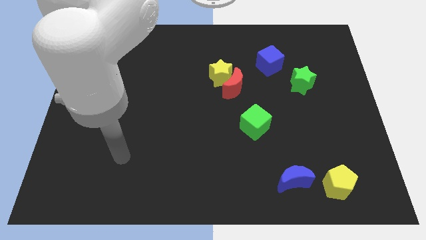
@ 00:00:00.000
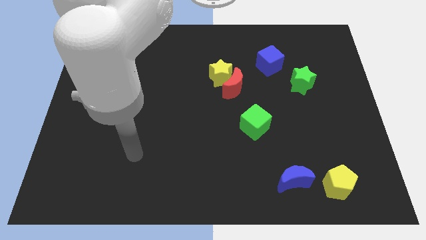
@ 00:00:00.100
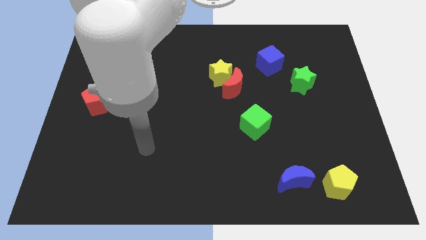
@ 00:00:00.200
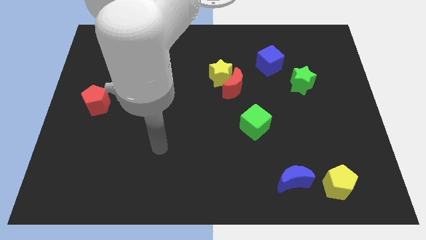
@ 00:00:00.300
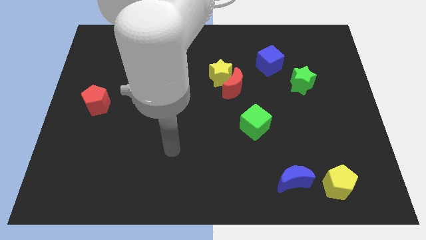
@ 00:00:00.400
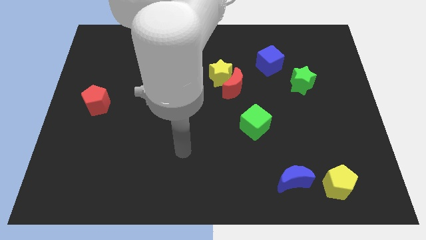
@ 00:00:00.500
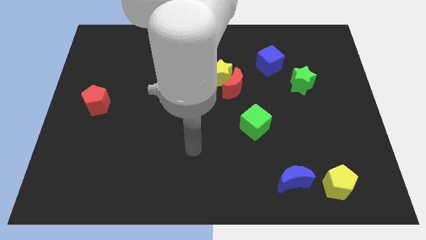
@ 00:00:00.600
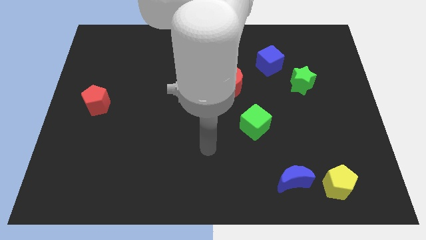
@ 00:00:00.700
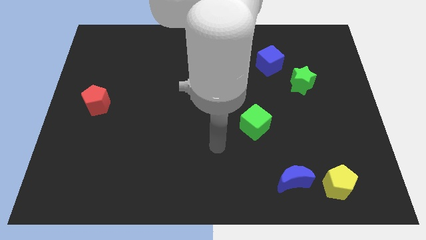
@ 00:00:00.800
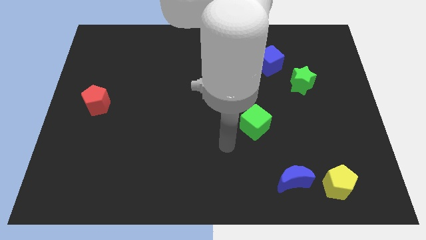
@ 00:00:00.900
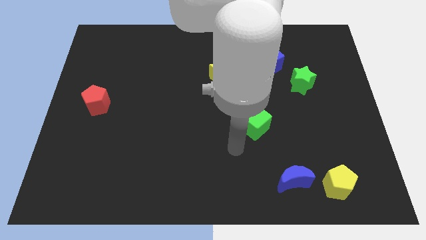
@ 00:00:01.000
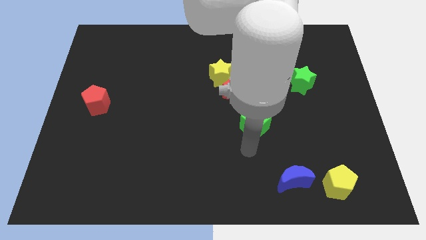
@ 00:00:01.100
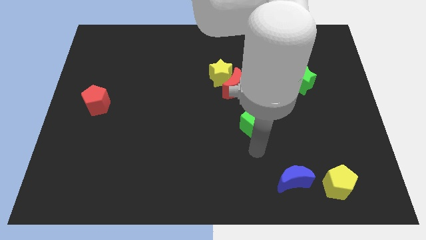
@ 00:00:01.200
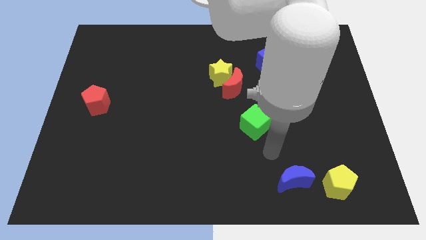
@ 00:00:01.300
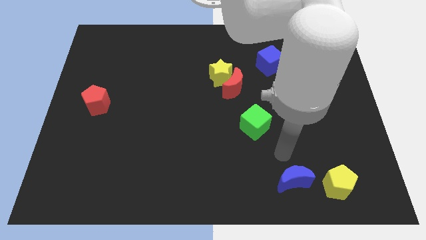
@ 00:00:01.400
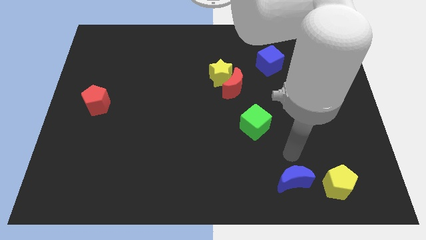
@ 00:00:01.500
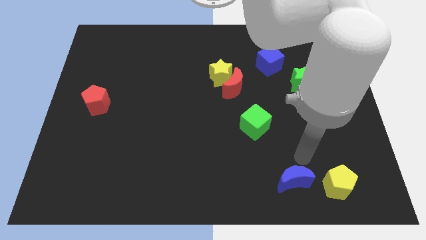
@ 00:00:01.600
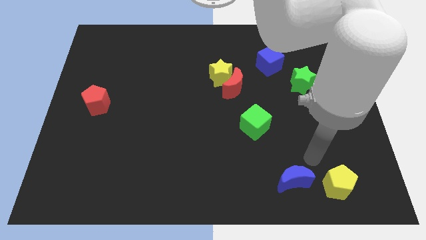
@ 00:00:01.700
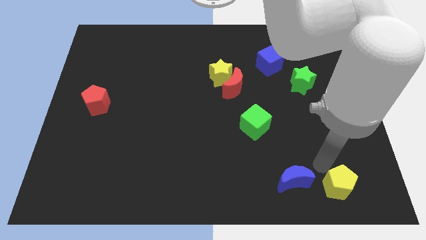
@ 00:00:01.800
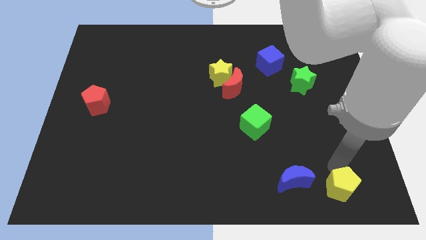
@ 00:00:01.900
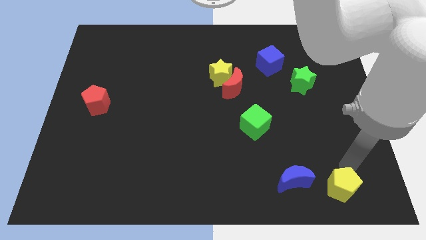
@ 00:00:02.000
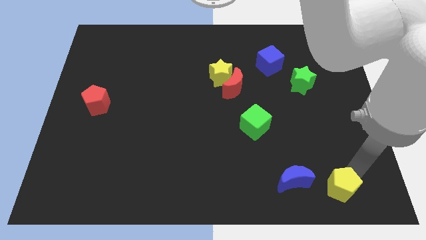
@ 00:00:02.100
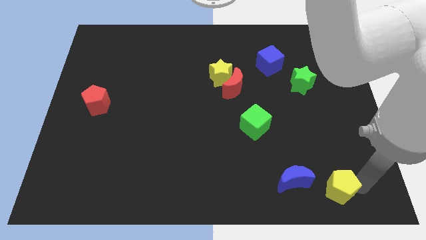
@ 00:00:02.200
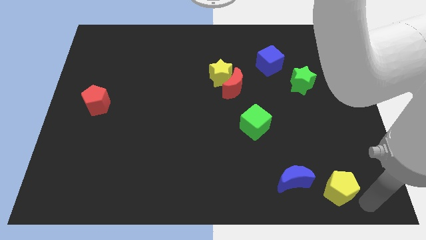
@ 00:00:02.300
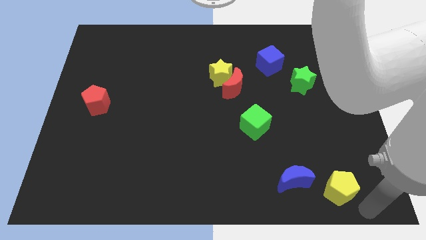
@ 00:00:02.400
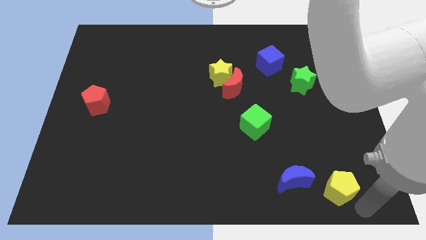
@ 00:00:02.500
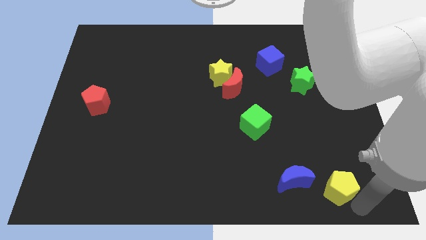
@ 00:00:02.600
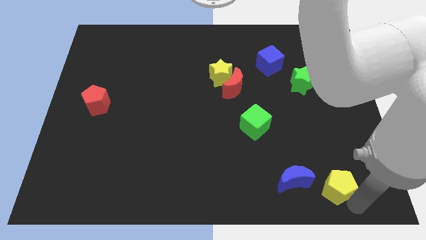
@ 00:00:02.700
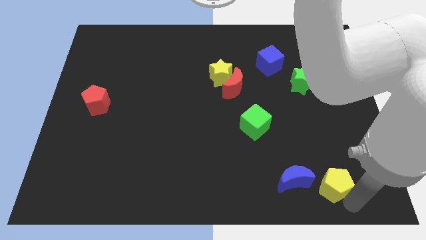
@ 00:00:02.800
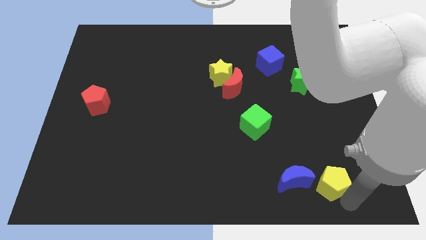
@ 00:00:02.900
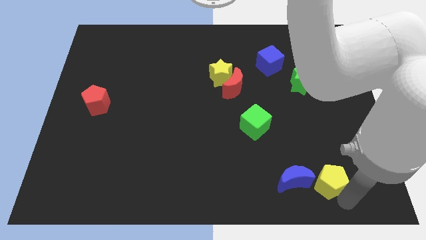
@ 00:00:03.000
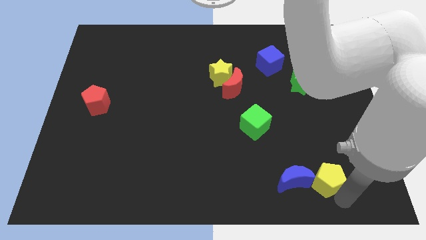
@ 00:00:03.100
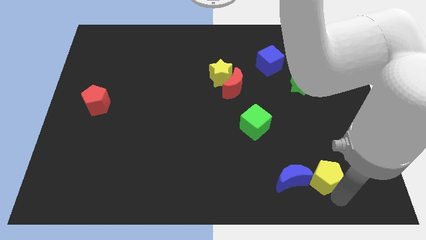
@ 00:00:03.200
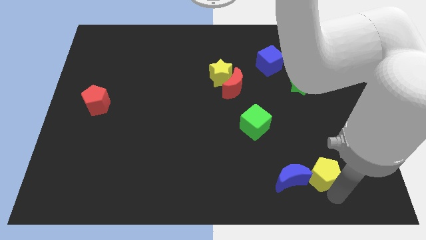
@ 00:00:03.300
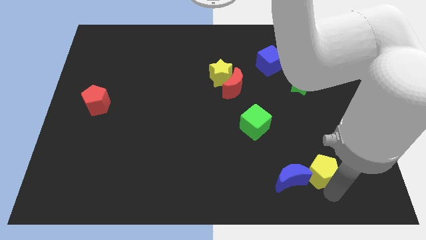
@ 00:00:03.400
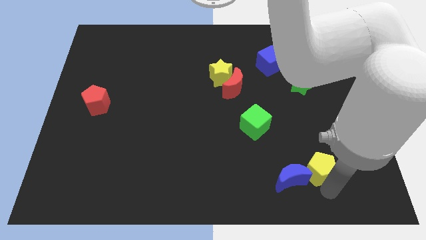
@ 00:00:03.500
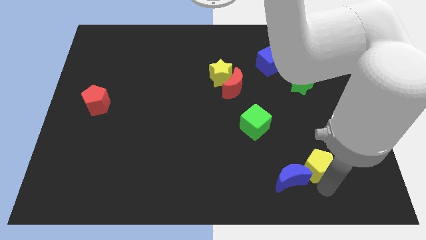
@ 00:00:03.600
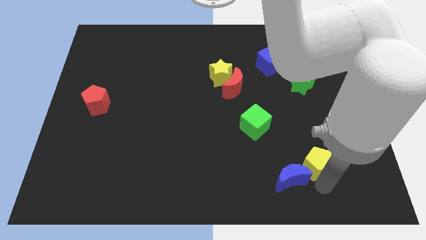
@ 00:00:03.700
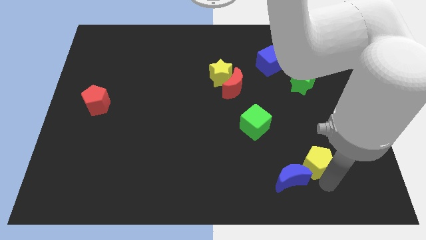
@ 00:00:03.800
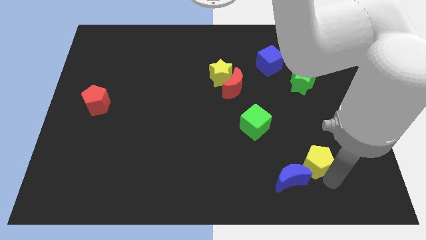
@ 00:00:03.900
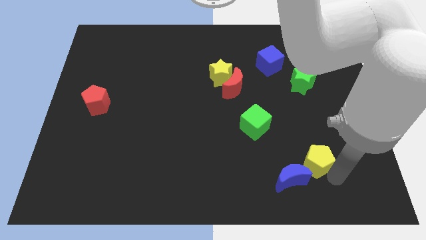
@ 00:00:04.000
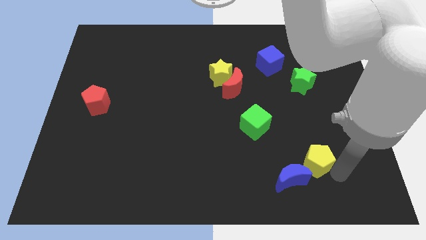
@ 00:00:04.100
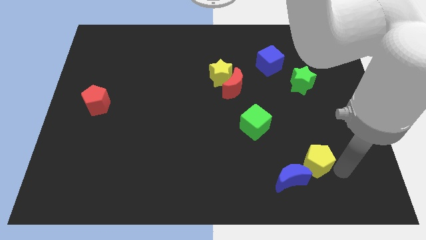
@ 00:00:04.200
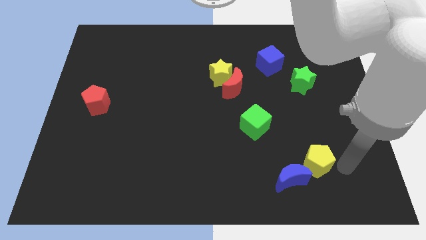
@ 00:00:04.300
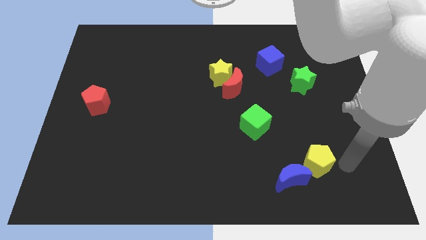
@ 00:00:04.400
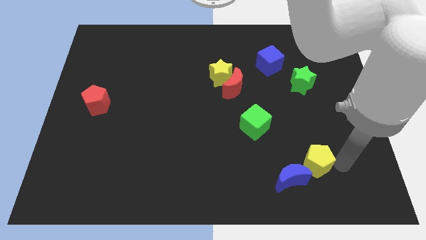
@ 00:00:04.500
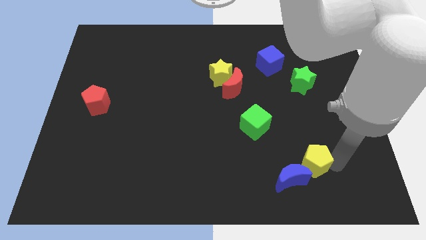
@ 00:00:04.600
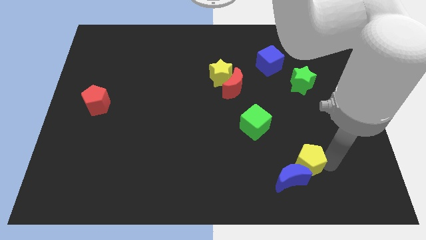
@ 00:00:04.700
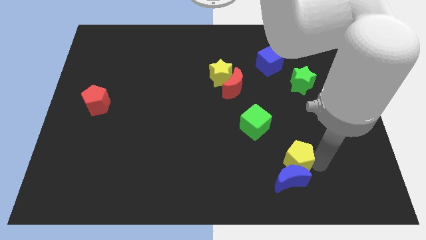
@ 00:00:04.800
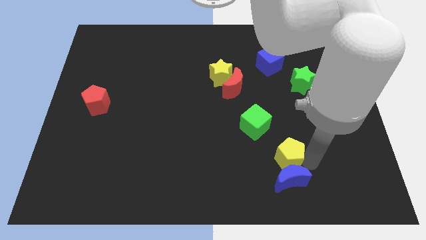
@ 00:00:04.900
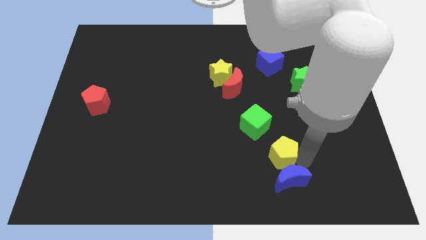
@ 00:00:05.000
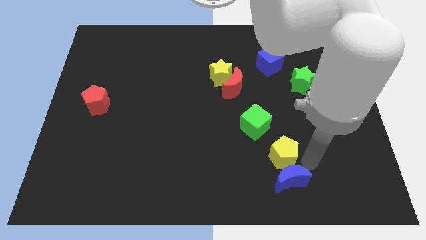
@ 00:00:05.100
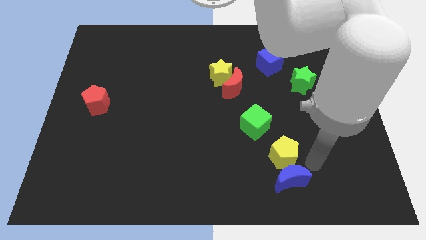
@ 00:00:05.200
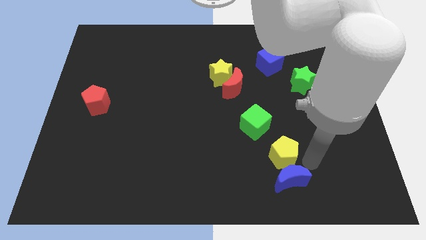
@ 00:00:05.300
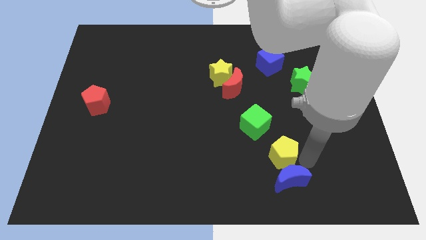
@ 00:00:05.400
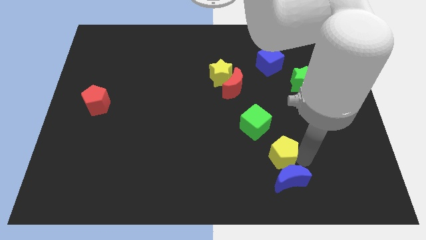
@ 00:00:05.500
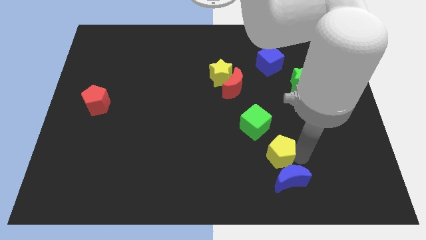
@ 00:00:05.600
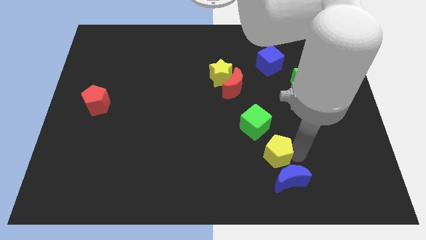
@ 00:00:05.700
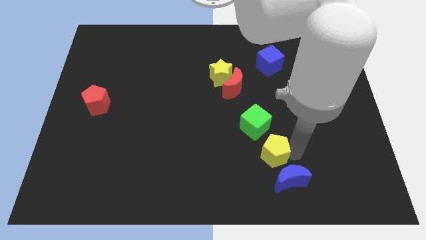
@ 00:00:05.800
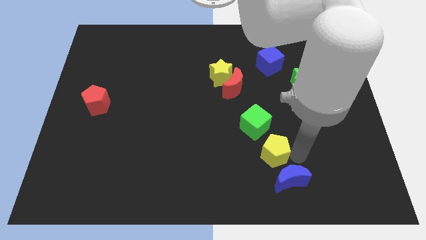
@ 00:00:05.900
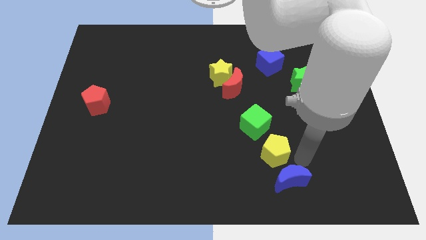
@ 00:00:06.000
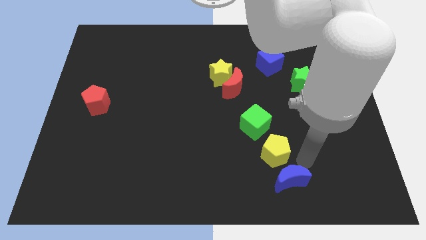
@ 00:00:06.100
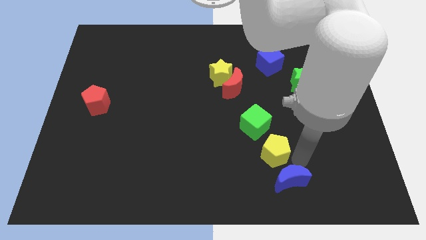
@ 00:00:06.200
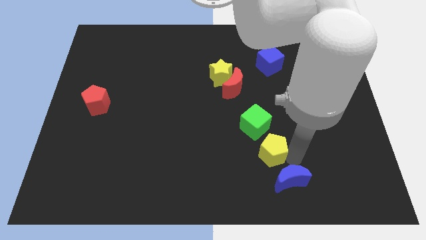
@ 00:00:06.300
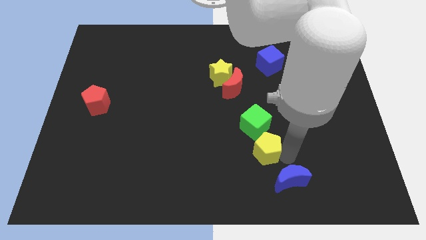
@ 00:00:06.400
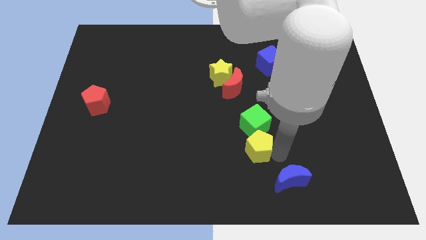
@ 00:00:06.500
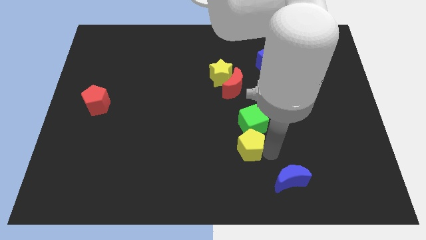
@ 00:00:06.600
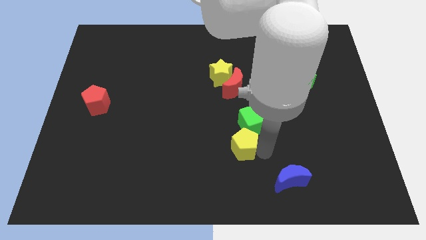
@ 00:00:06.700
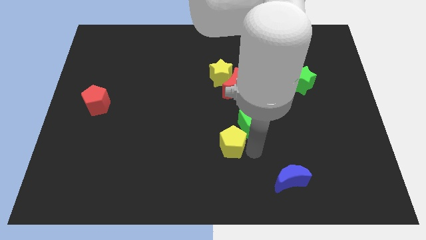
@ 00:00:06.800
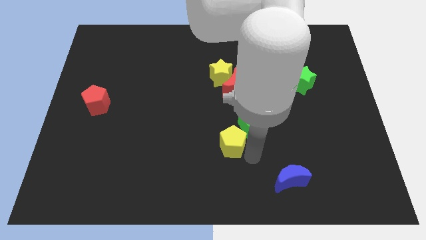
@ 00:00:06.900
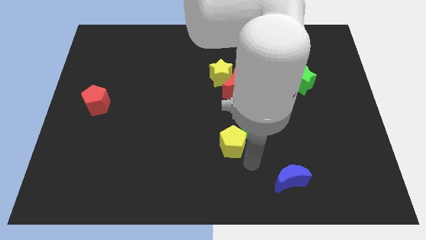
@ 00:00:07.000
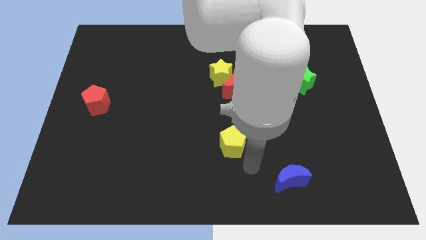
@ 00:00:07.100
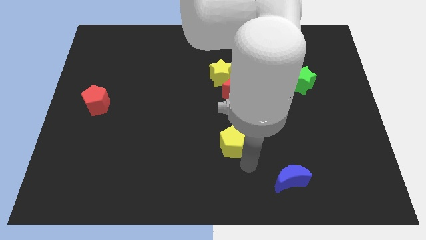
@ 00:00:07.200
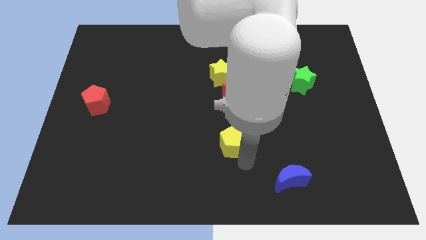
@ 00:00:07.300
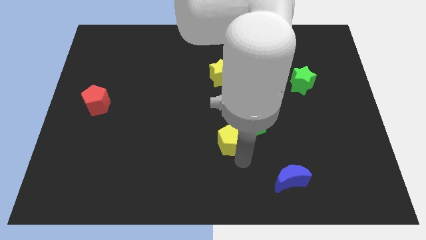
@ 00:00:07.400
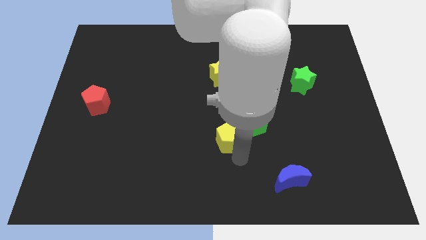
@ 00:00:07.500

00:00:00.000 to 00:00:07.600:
push the yellow pentagon diagonally up and to the left

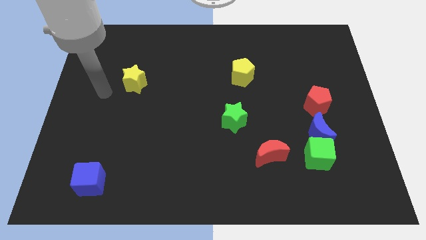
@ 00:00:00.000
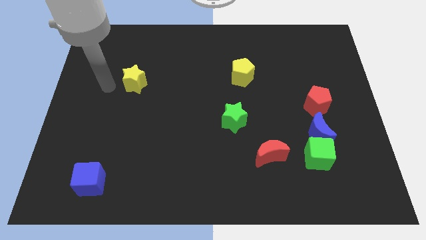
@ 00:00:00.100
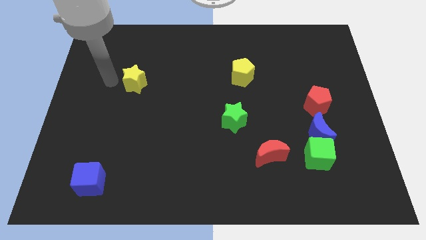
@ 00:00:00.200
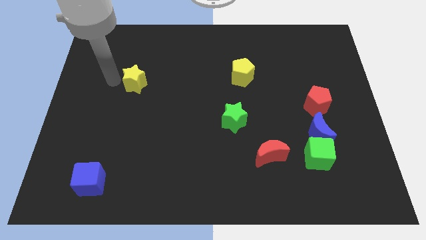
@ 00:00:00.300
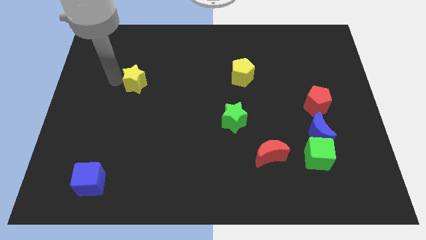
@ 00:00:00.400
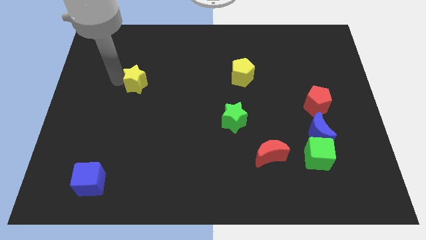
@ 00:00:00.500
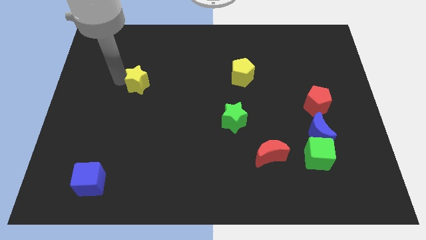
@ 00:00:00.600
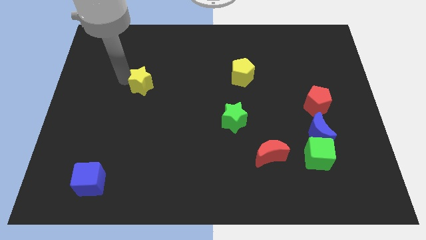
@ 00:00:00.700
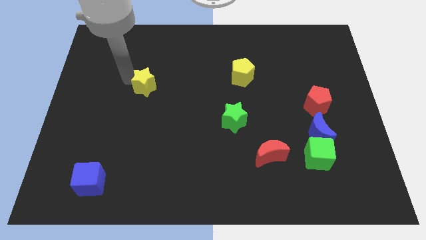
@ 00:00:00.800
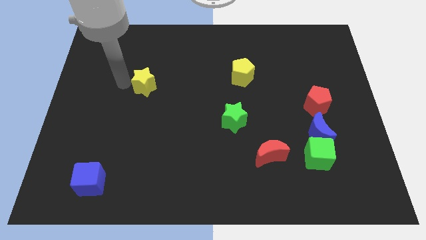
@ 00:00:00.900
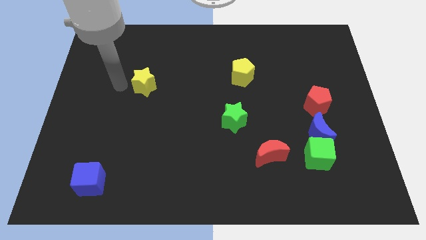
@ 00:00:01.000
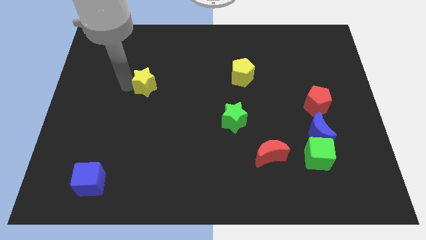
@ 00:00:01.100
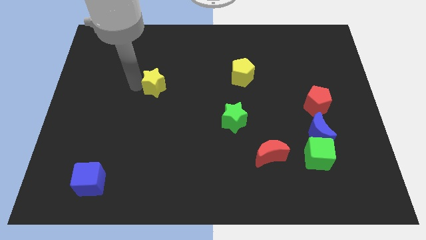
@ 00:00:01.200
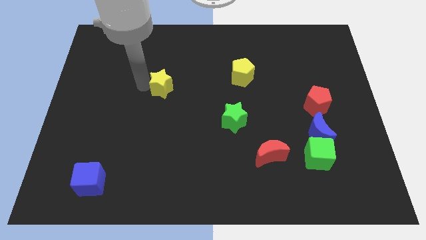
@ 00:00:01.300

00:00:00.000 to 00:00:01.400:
slide the yellow star right somewhat
